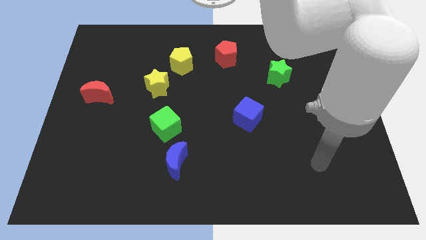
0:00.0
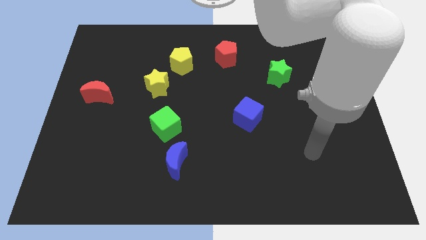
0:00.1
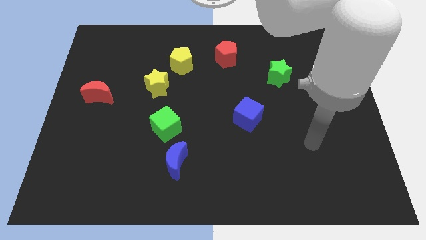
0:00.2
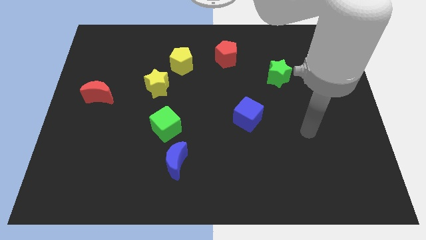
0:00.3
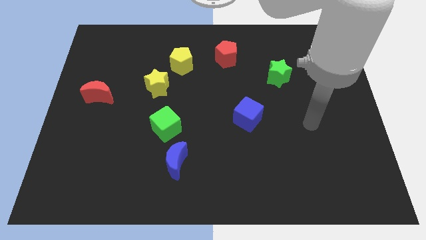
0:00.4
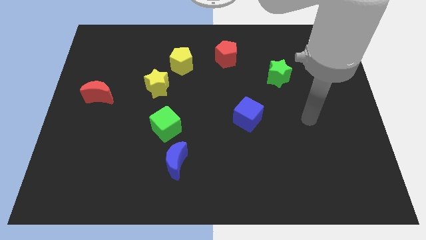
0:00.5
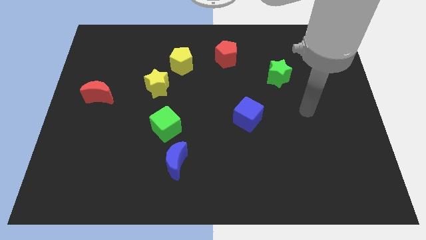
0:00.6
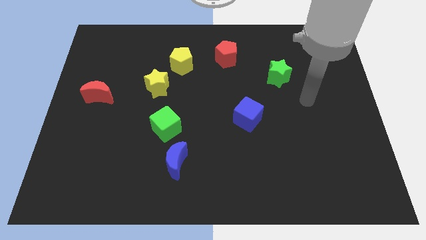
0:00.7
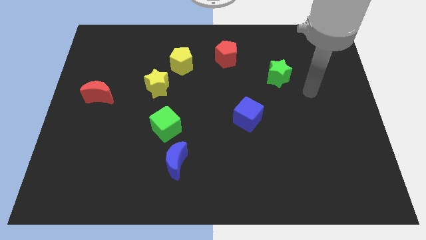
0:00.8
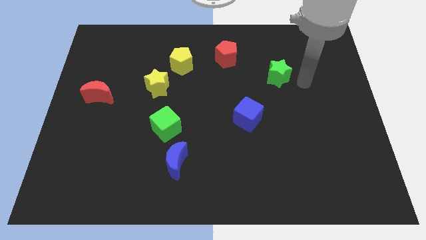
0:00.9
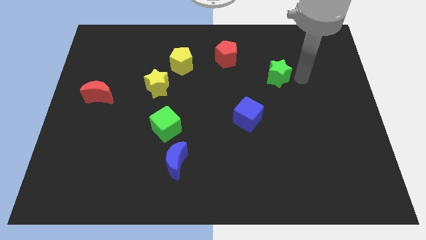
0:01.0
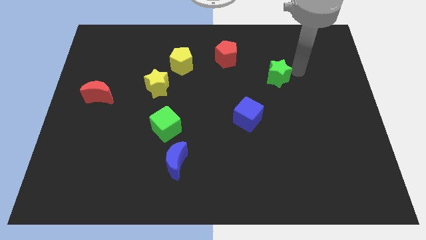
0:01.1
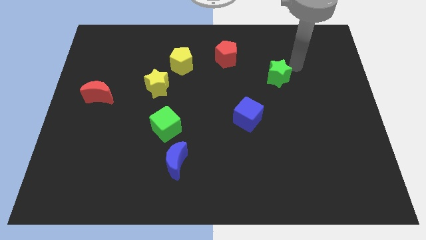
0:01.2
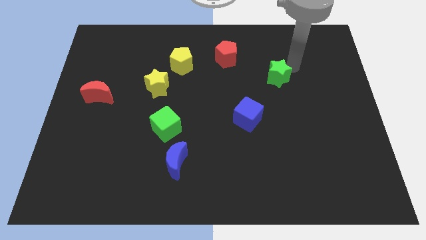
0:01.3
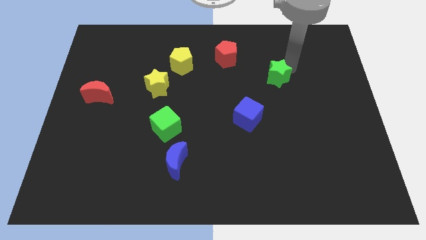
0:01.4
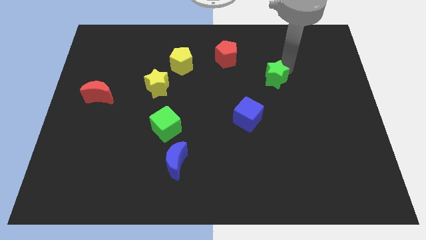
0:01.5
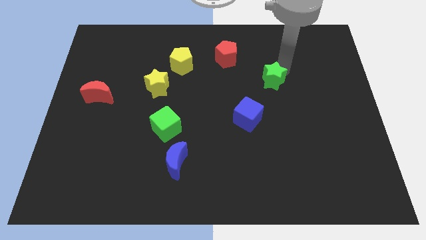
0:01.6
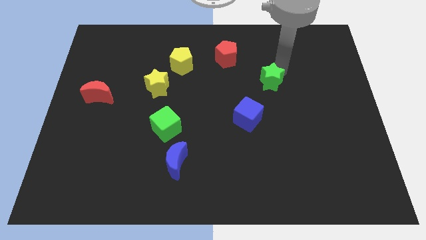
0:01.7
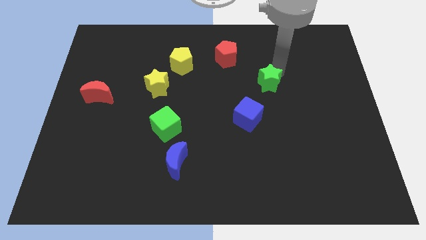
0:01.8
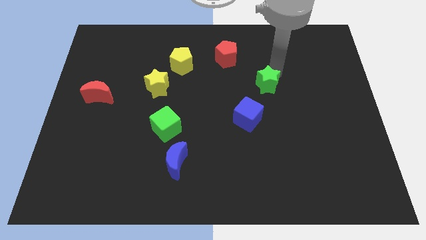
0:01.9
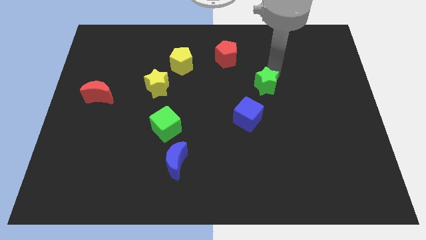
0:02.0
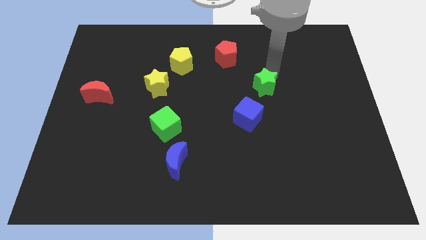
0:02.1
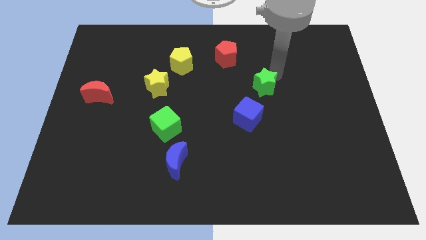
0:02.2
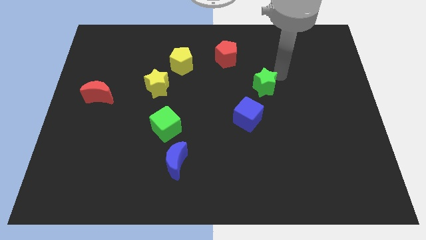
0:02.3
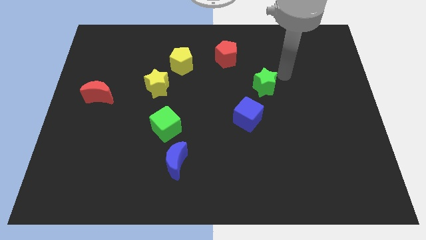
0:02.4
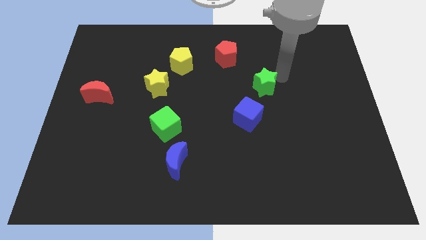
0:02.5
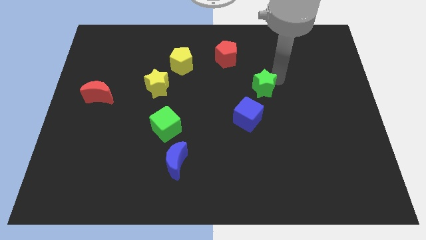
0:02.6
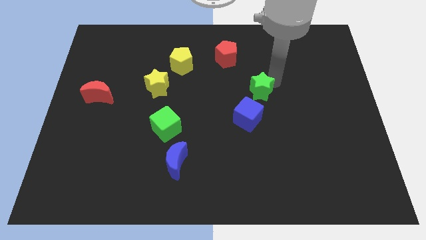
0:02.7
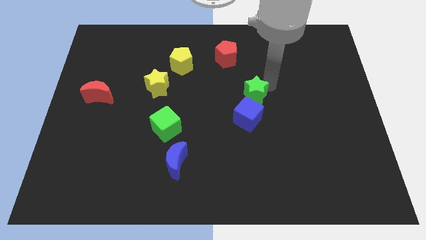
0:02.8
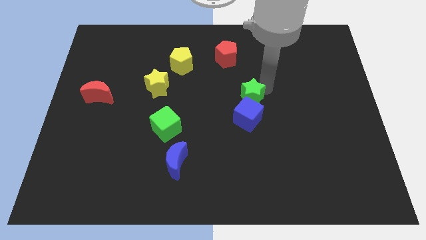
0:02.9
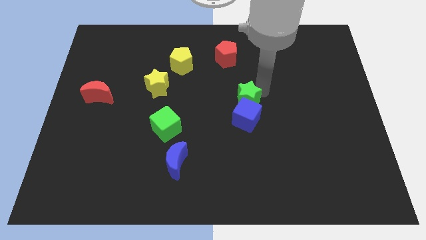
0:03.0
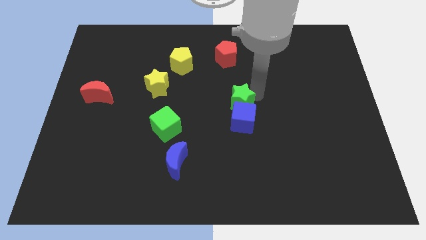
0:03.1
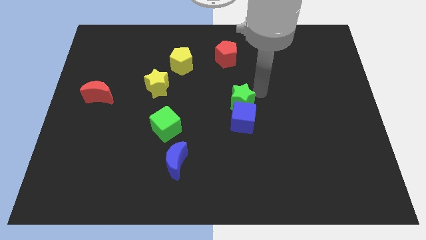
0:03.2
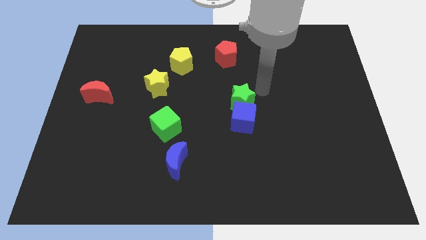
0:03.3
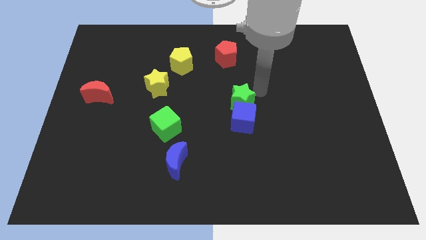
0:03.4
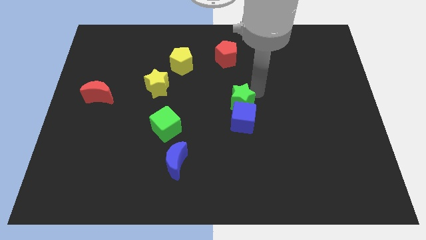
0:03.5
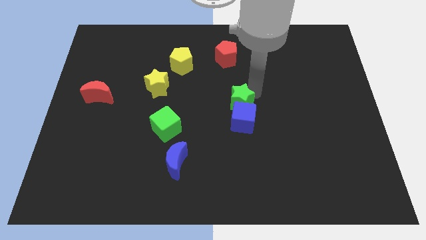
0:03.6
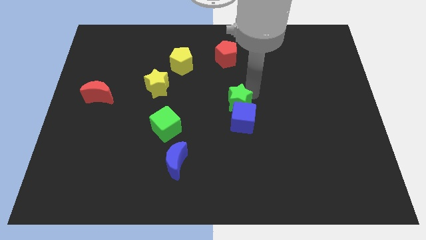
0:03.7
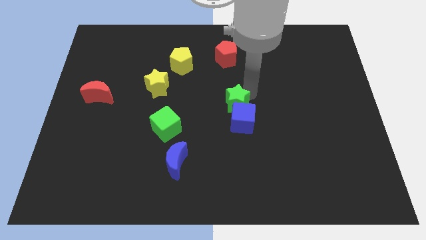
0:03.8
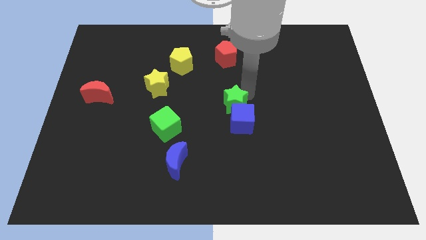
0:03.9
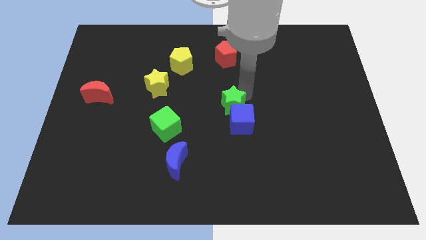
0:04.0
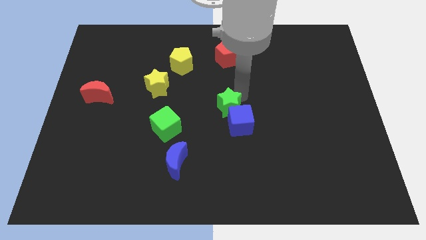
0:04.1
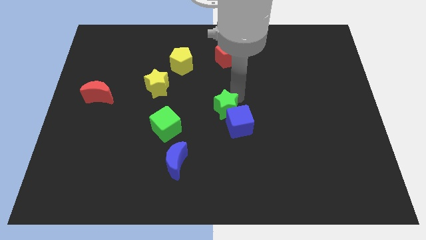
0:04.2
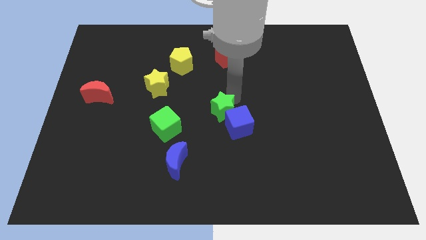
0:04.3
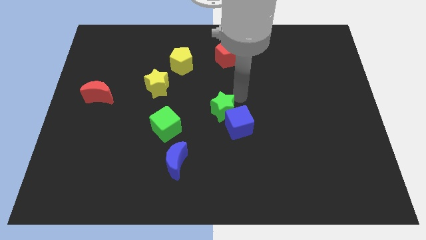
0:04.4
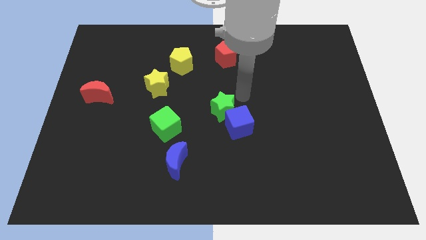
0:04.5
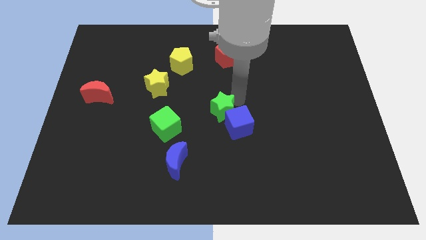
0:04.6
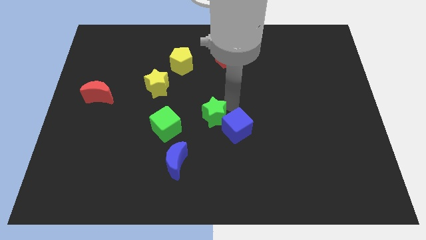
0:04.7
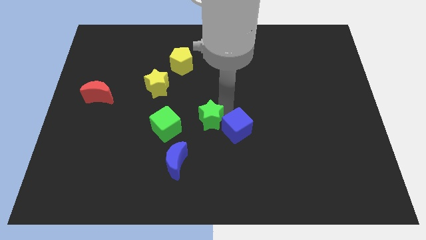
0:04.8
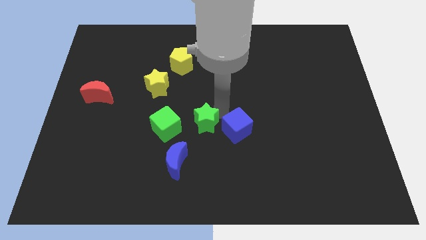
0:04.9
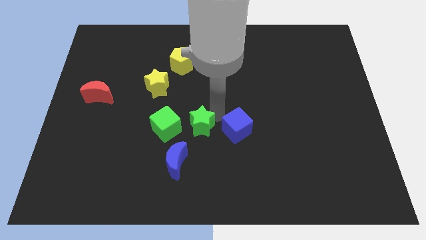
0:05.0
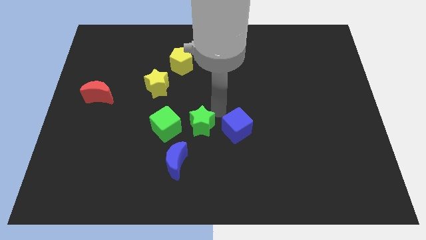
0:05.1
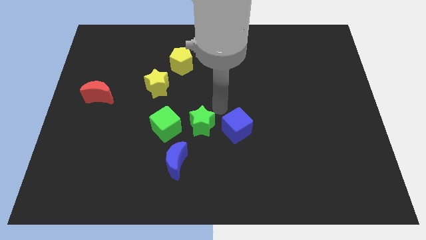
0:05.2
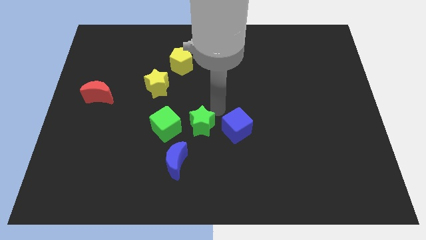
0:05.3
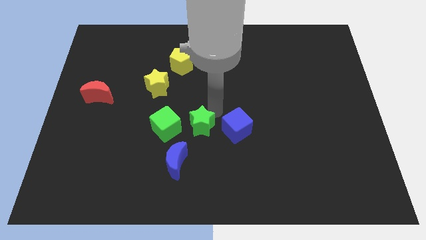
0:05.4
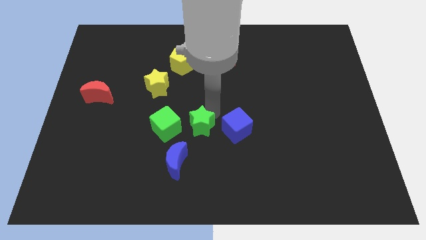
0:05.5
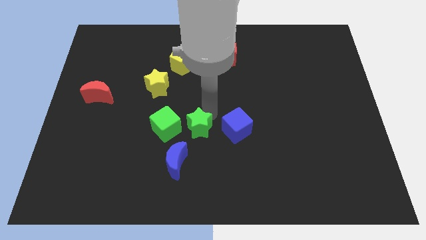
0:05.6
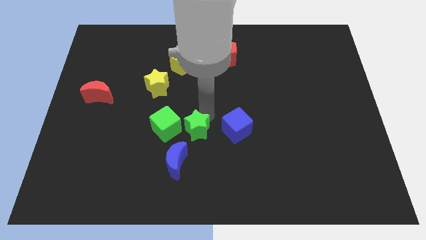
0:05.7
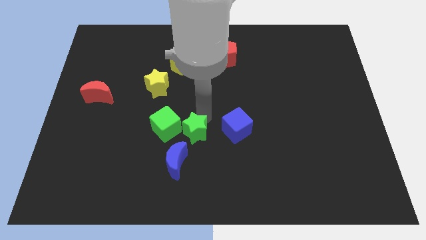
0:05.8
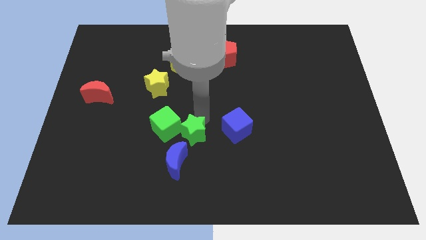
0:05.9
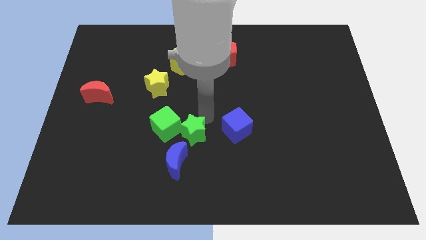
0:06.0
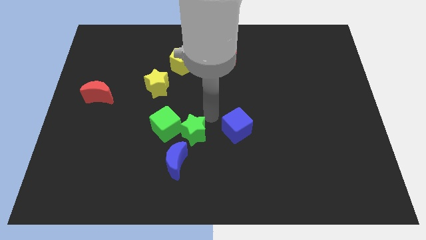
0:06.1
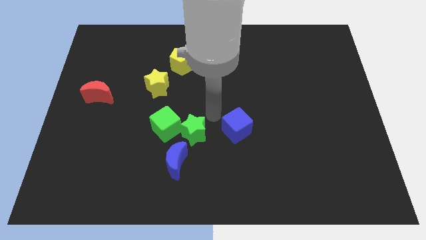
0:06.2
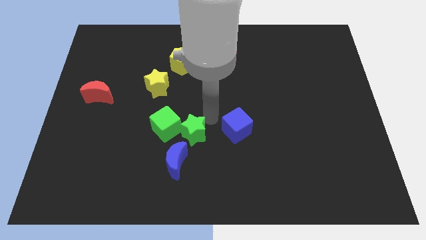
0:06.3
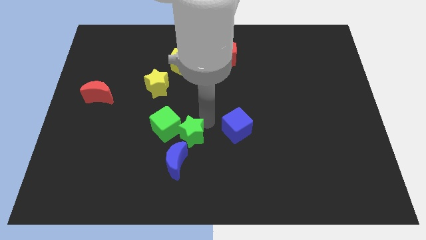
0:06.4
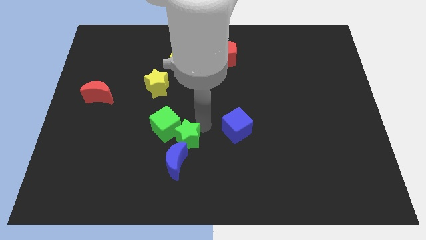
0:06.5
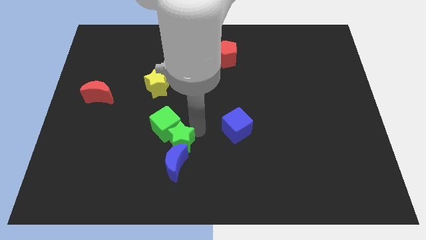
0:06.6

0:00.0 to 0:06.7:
slide the green star to the blue moon
